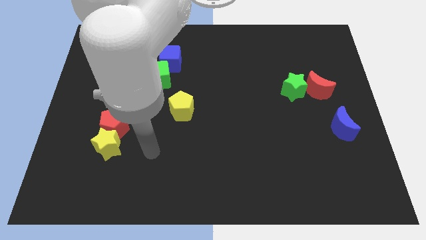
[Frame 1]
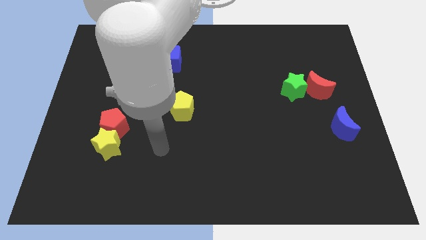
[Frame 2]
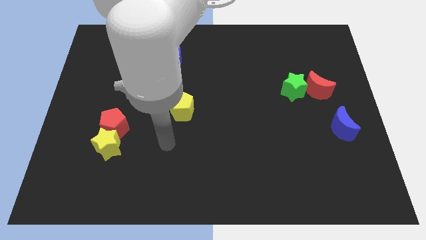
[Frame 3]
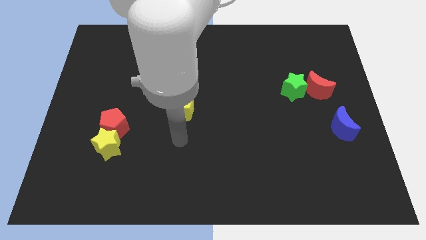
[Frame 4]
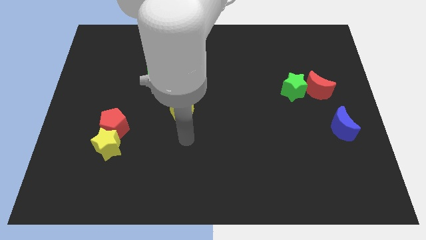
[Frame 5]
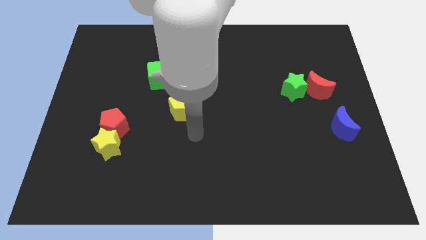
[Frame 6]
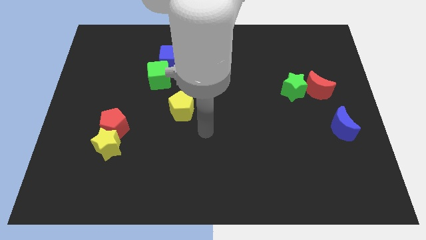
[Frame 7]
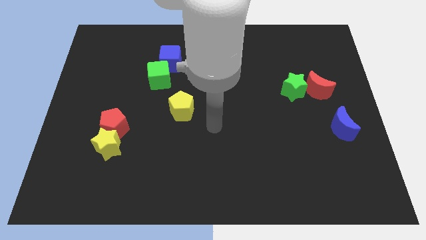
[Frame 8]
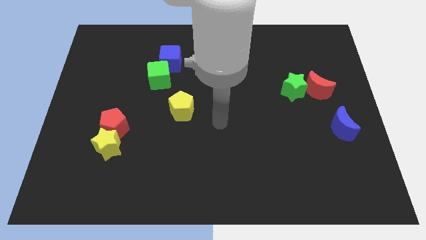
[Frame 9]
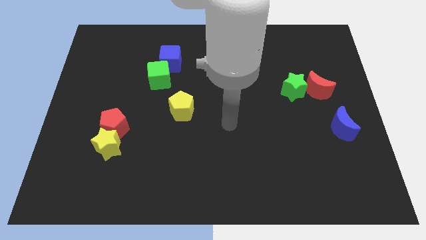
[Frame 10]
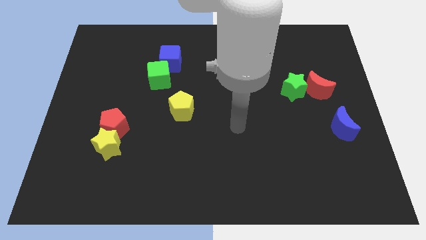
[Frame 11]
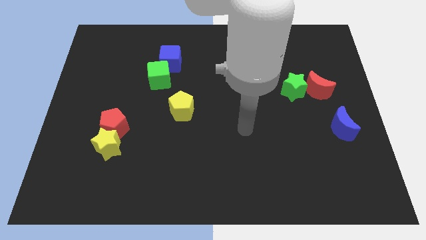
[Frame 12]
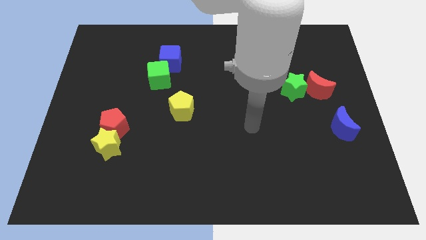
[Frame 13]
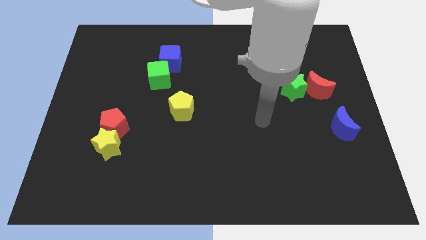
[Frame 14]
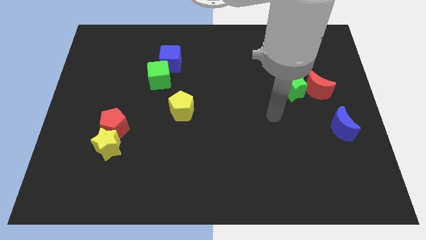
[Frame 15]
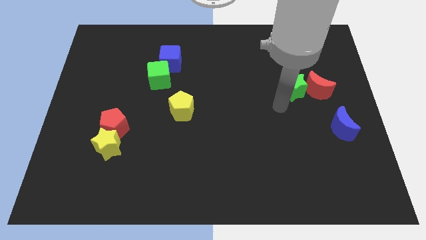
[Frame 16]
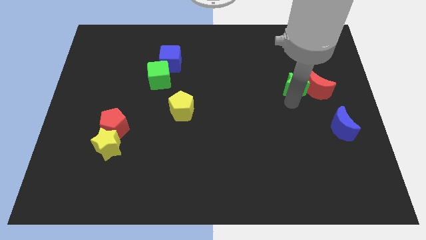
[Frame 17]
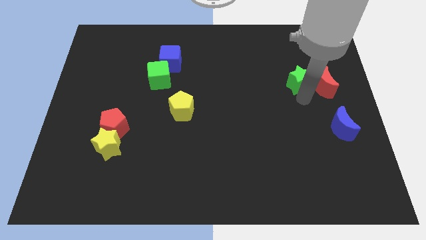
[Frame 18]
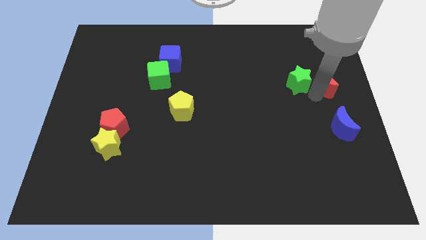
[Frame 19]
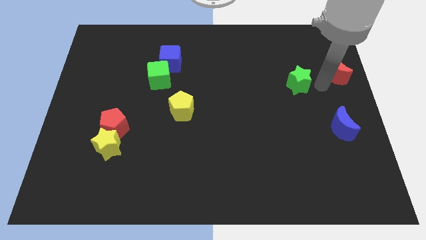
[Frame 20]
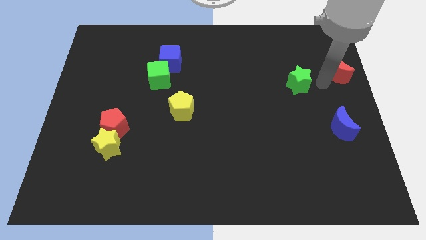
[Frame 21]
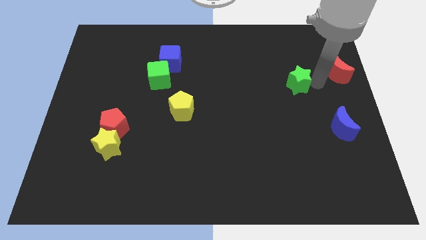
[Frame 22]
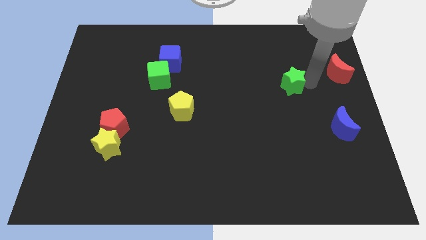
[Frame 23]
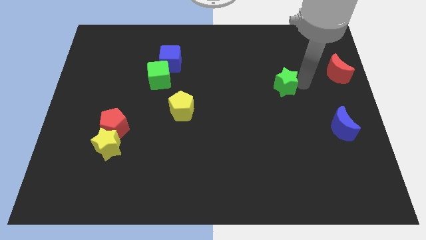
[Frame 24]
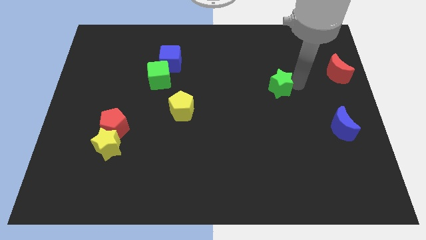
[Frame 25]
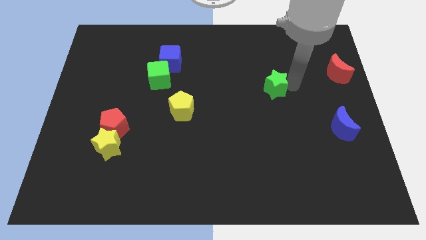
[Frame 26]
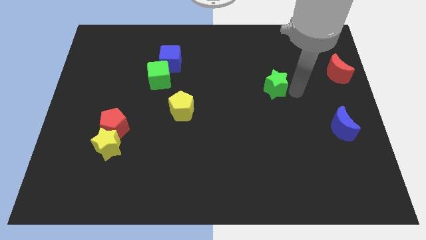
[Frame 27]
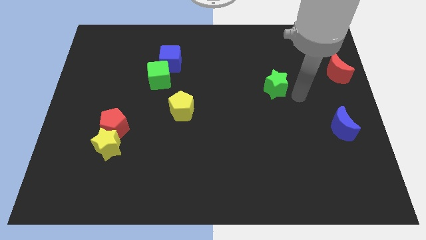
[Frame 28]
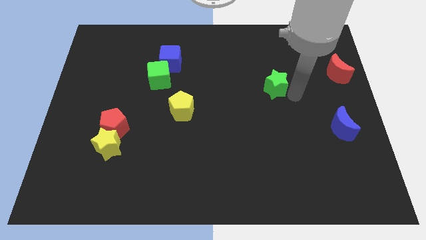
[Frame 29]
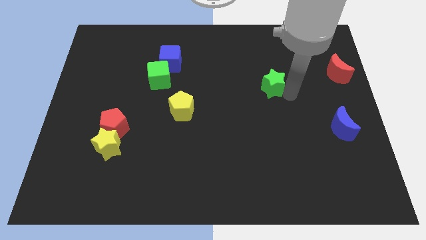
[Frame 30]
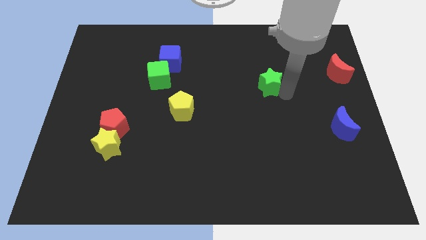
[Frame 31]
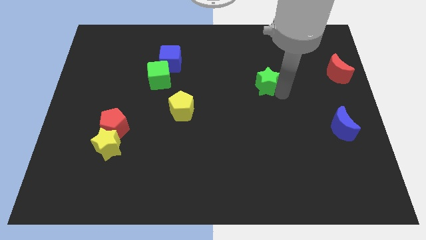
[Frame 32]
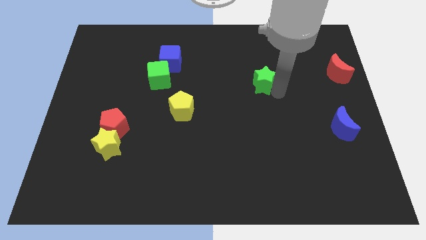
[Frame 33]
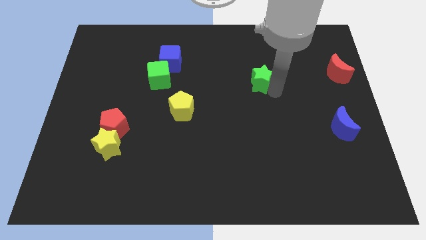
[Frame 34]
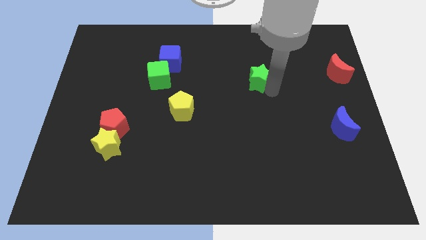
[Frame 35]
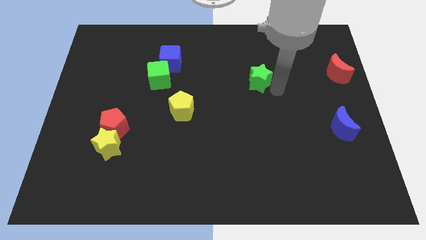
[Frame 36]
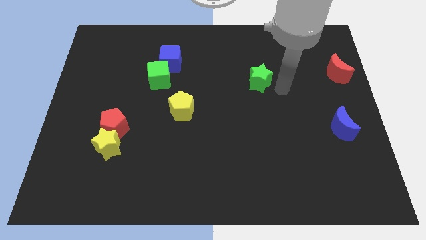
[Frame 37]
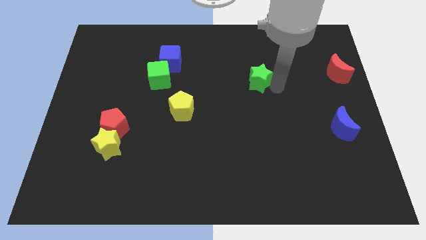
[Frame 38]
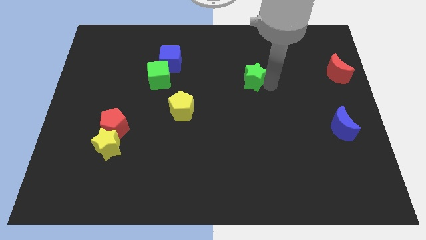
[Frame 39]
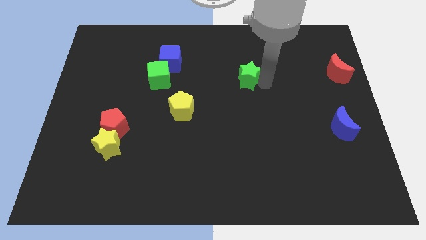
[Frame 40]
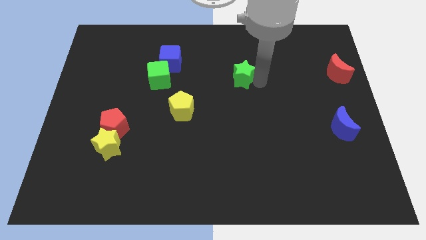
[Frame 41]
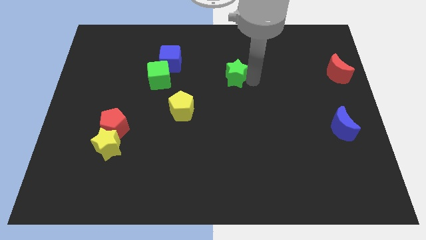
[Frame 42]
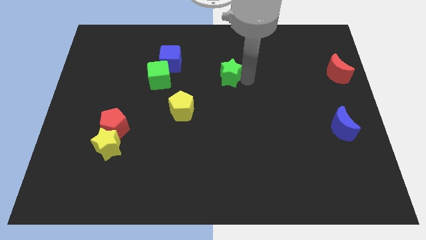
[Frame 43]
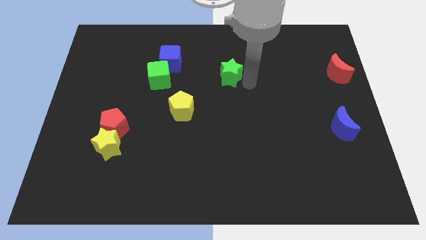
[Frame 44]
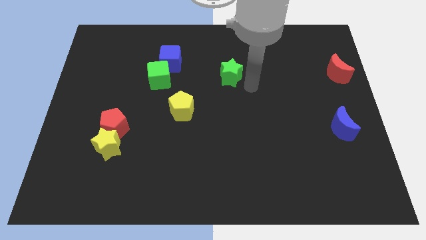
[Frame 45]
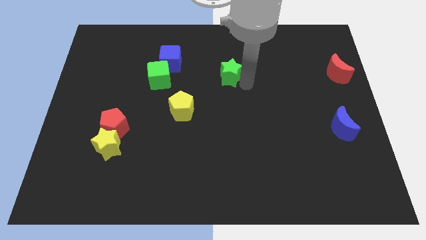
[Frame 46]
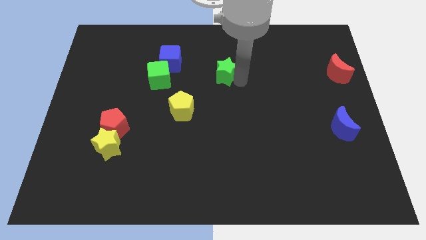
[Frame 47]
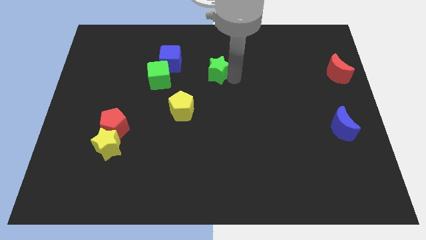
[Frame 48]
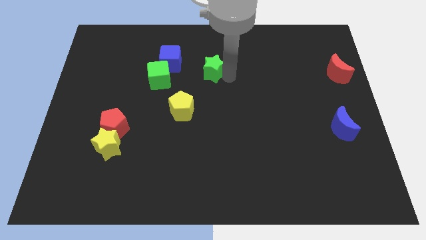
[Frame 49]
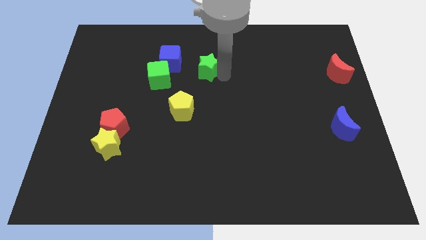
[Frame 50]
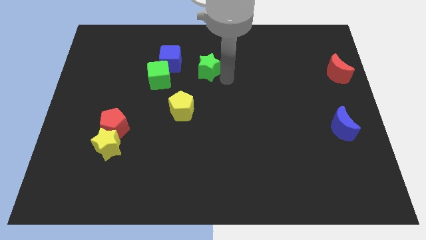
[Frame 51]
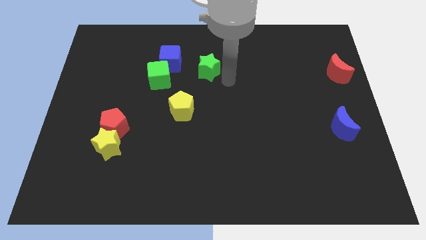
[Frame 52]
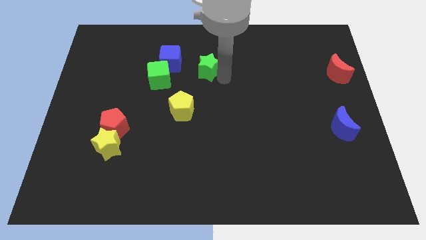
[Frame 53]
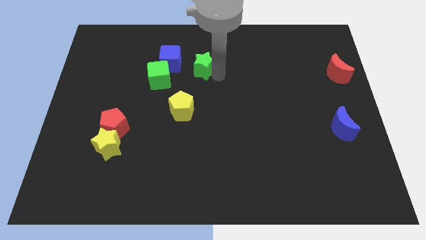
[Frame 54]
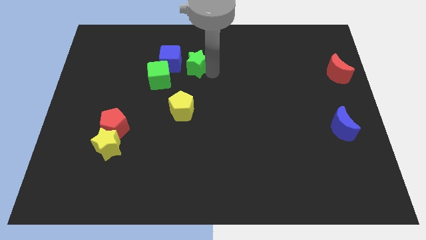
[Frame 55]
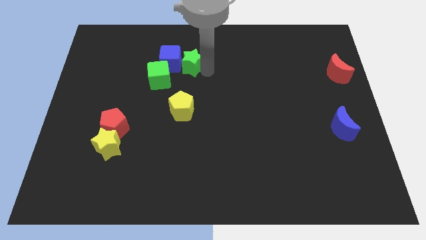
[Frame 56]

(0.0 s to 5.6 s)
push the green star next to the blue cube

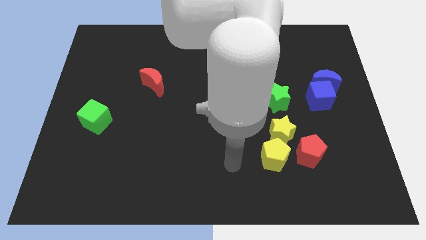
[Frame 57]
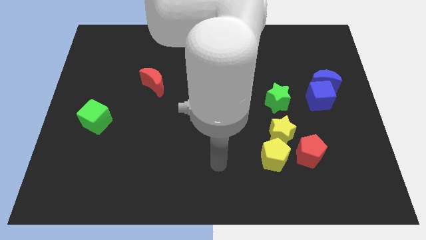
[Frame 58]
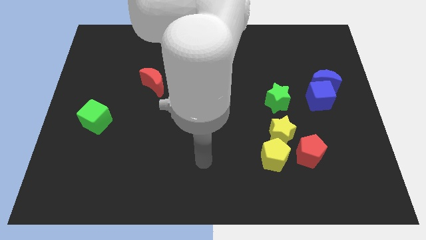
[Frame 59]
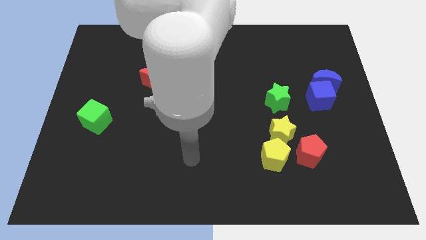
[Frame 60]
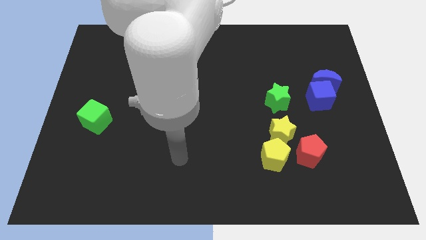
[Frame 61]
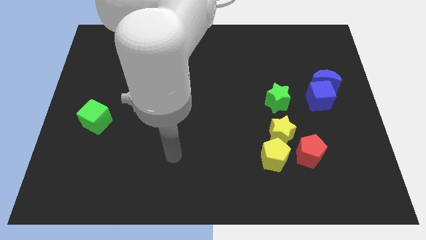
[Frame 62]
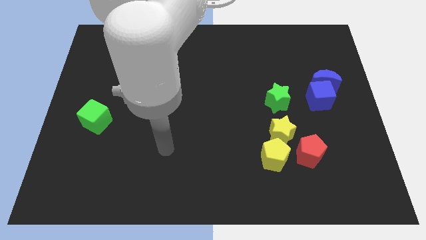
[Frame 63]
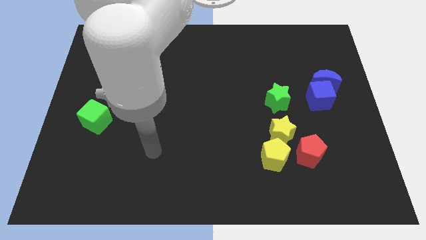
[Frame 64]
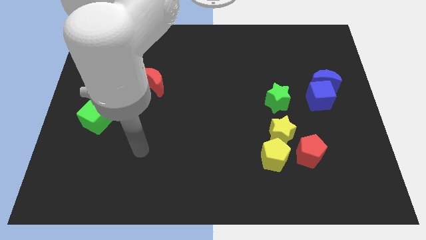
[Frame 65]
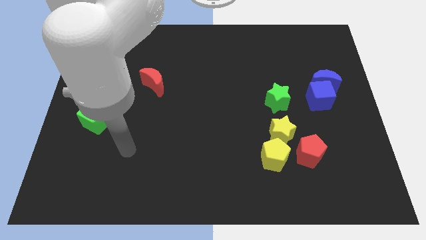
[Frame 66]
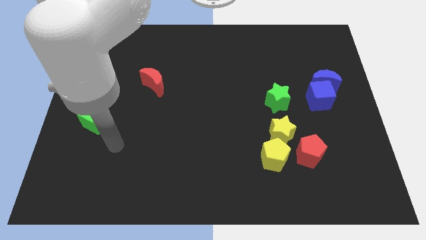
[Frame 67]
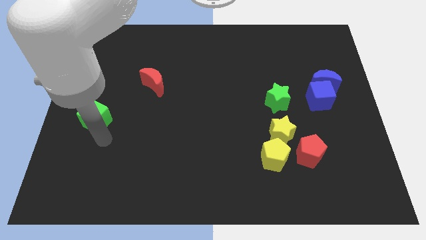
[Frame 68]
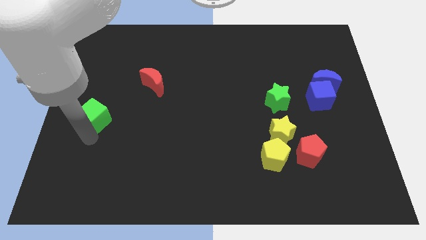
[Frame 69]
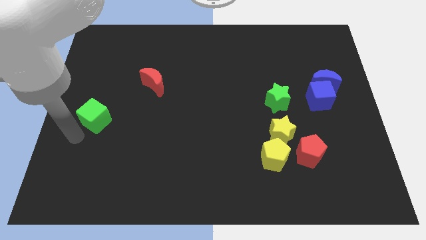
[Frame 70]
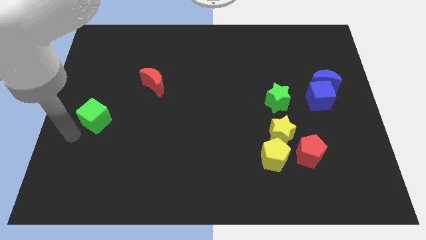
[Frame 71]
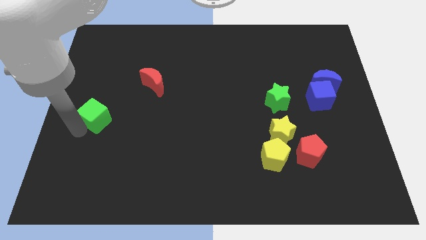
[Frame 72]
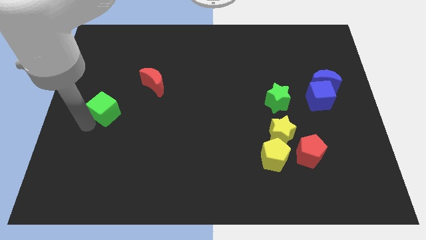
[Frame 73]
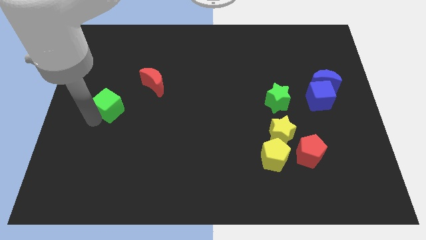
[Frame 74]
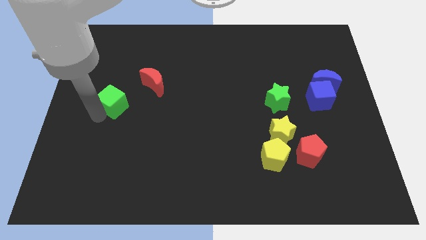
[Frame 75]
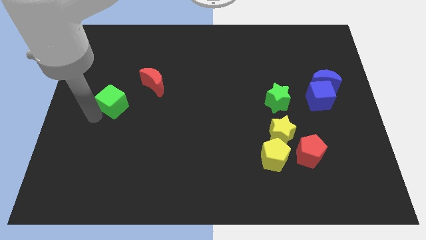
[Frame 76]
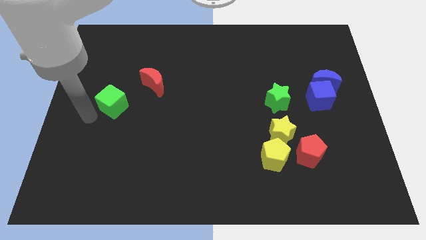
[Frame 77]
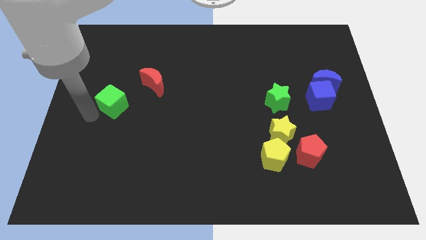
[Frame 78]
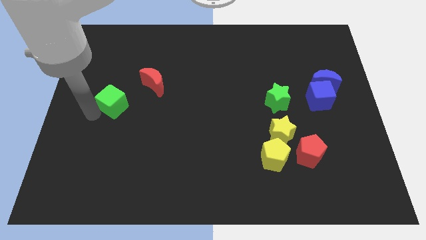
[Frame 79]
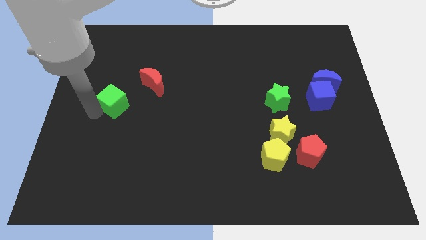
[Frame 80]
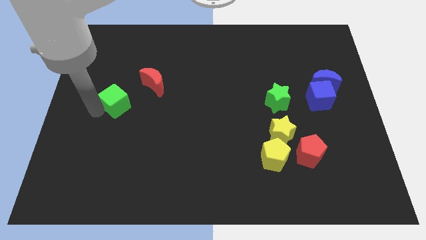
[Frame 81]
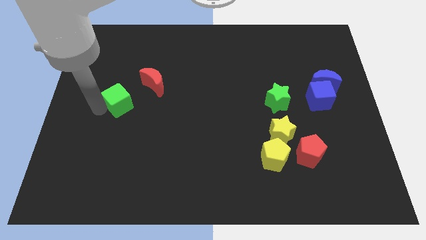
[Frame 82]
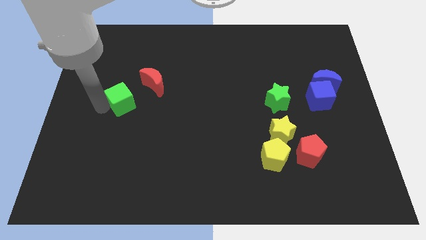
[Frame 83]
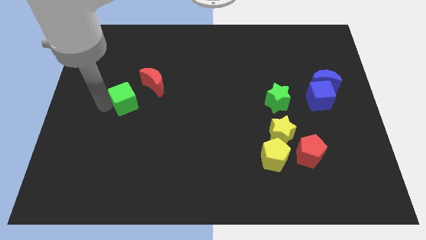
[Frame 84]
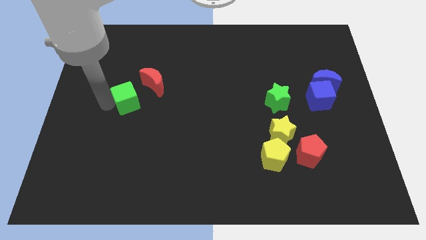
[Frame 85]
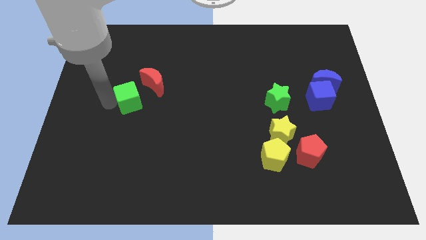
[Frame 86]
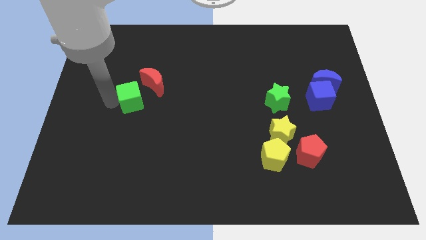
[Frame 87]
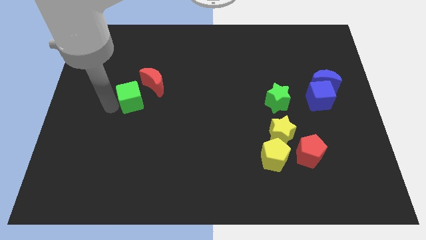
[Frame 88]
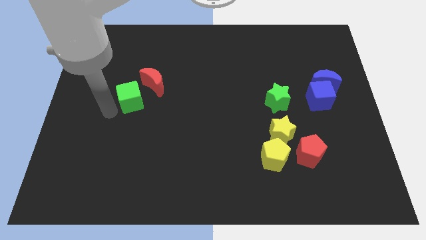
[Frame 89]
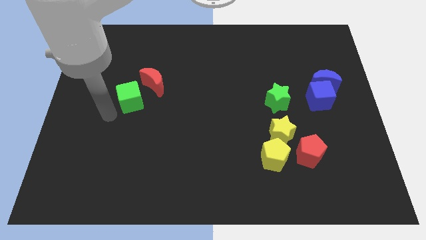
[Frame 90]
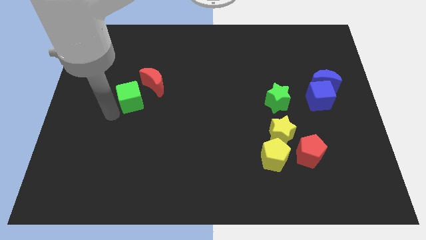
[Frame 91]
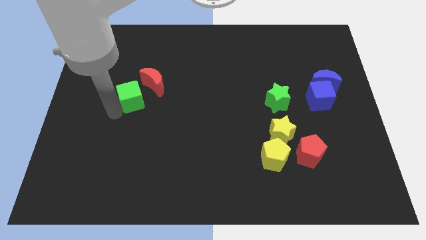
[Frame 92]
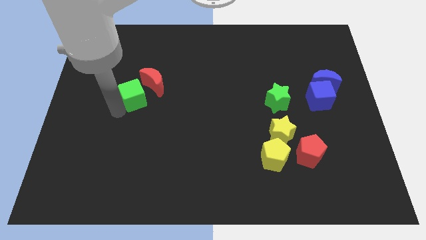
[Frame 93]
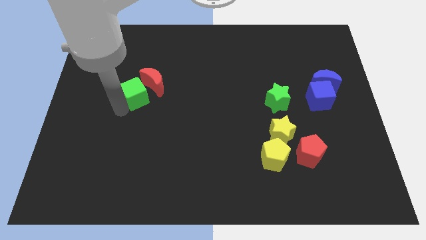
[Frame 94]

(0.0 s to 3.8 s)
put the green cube next to the red moon
